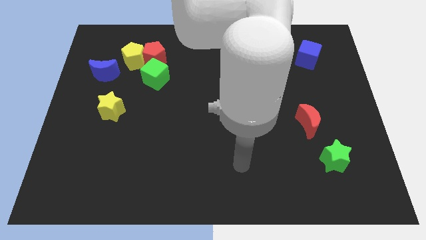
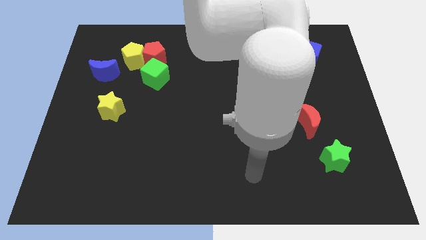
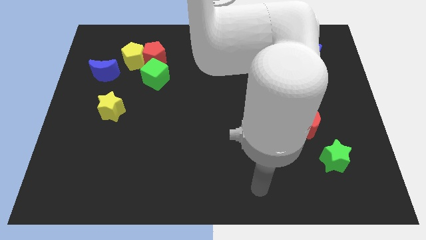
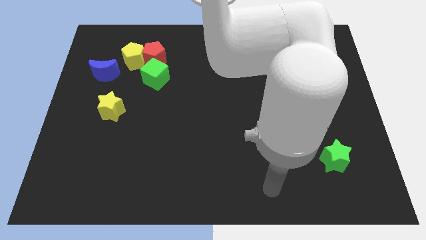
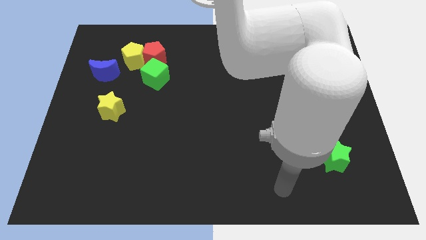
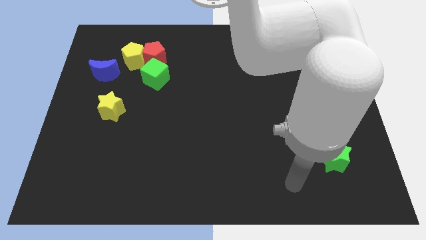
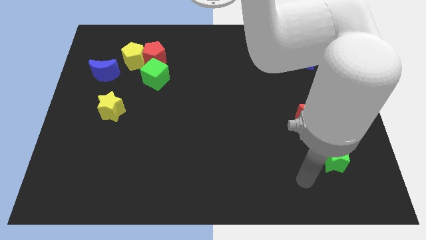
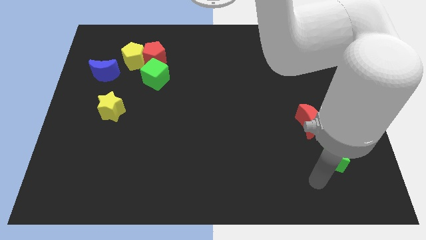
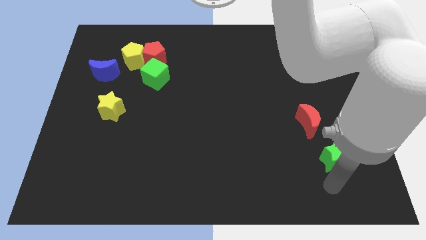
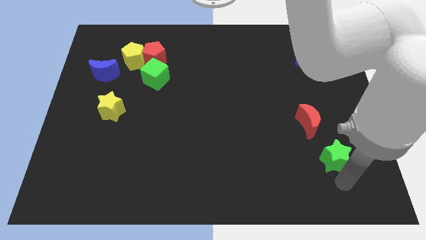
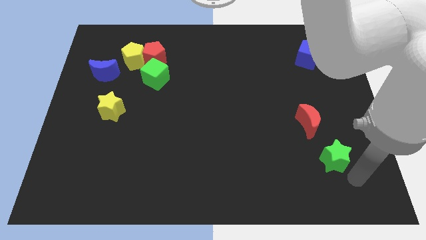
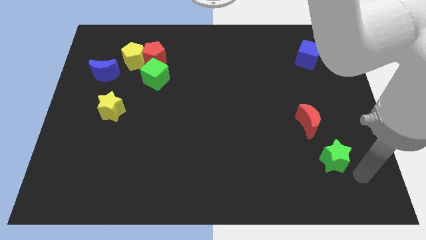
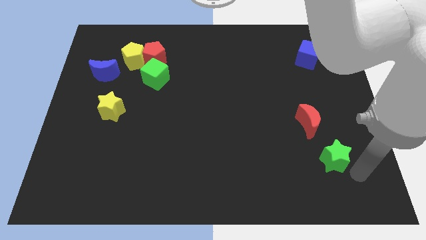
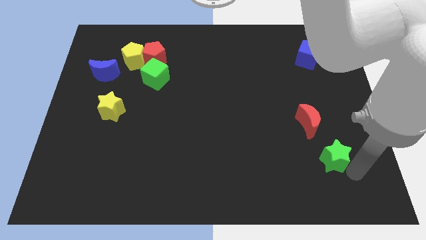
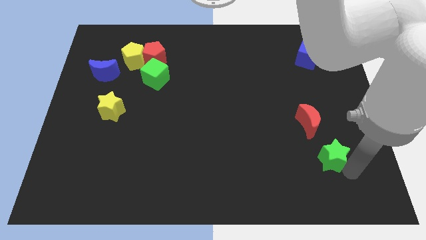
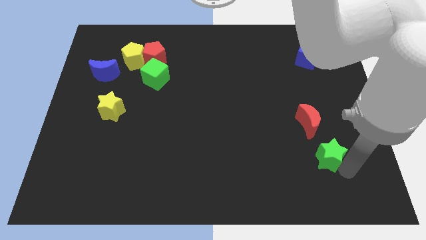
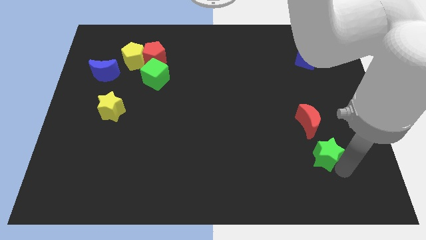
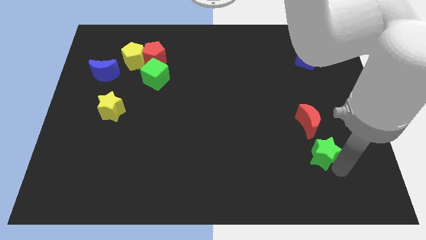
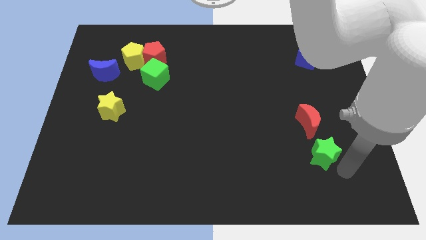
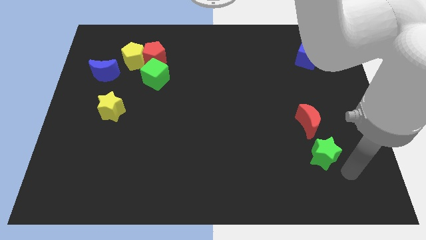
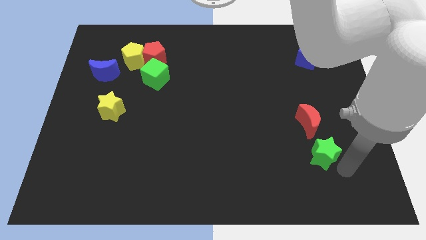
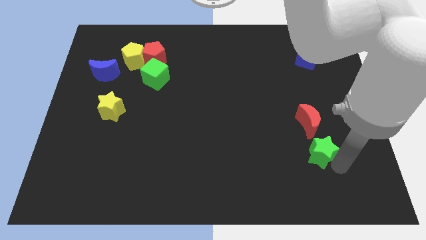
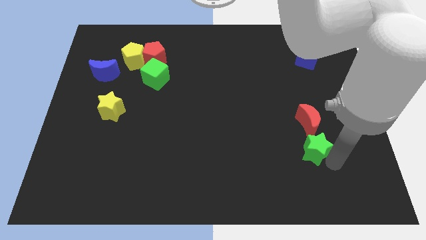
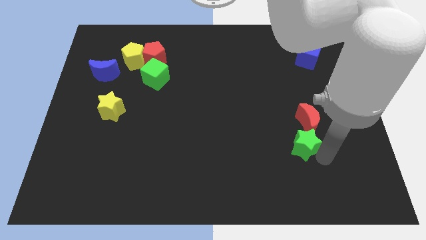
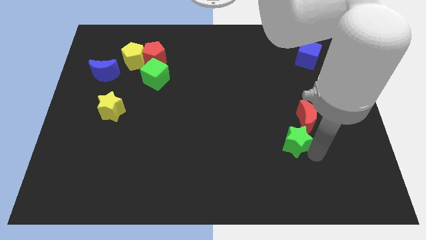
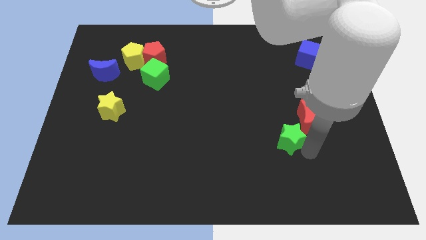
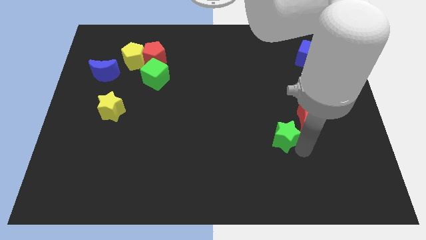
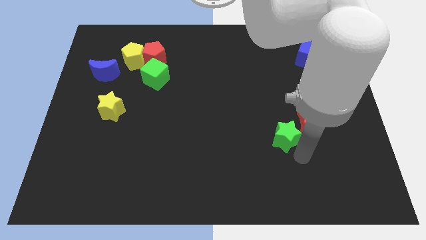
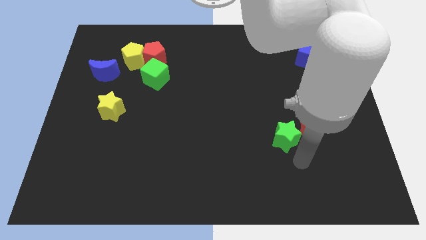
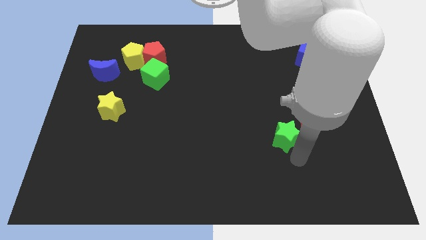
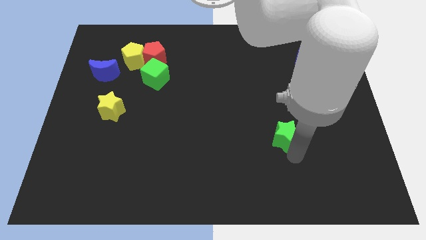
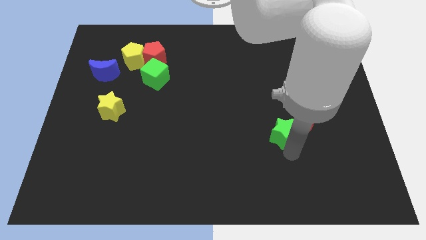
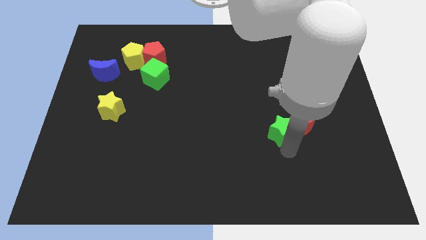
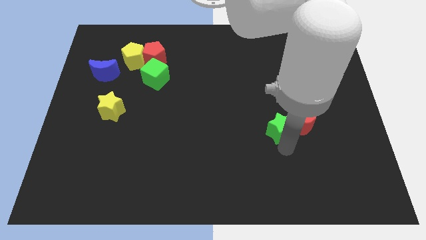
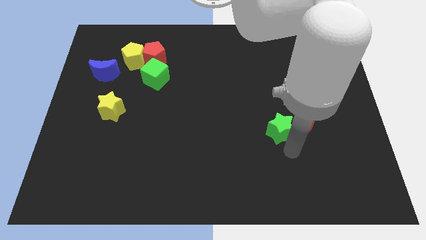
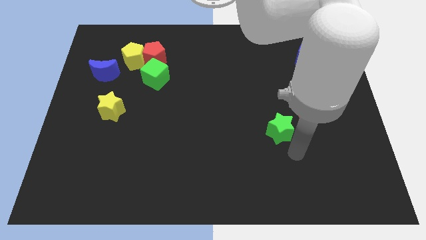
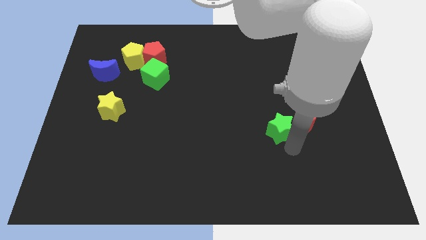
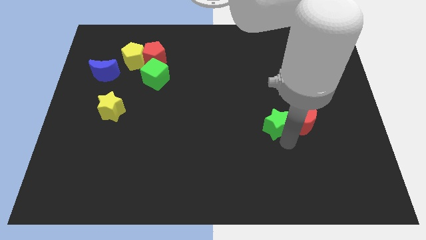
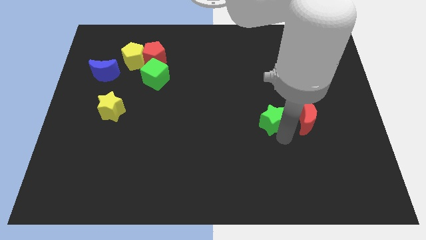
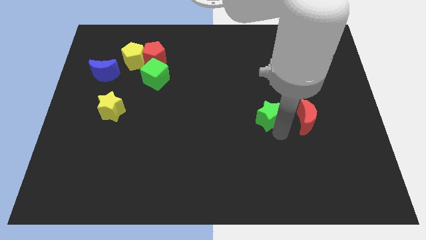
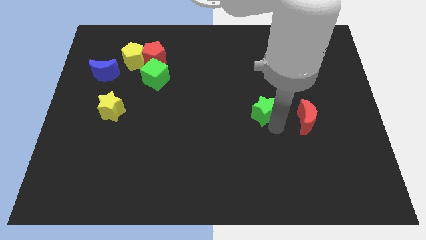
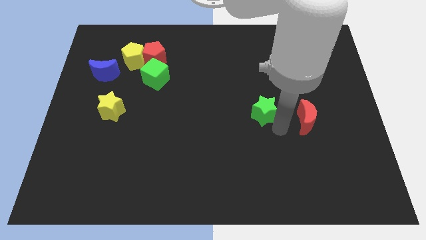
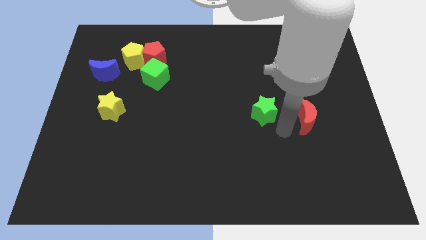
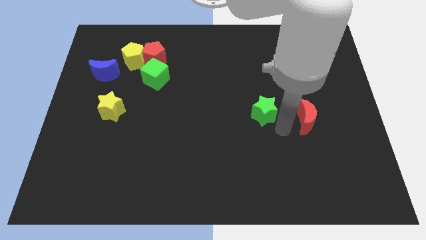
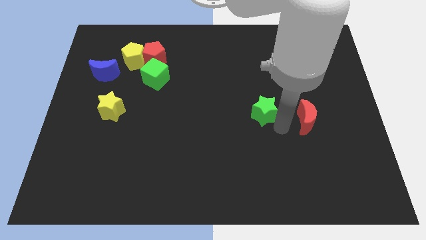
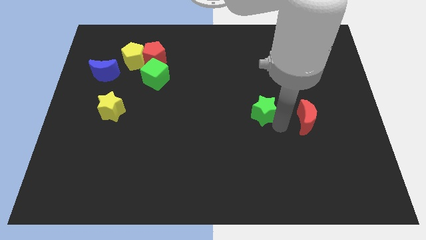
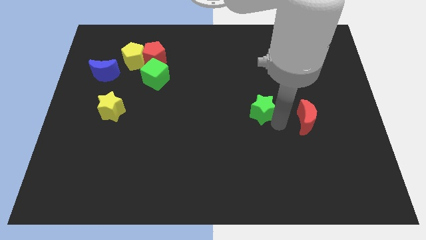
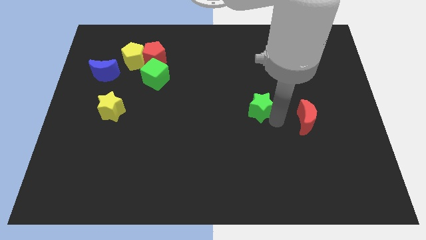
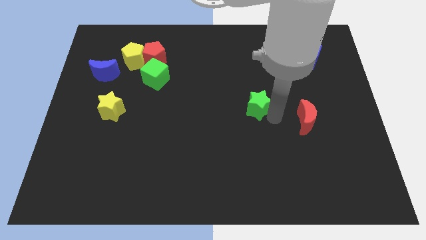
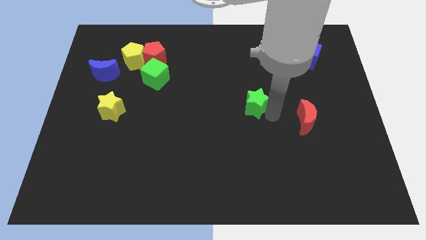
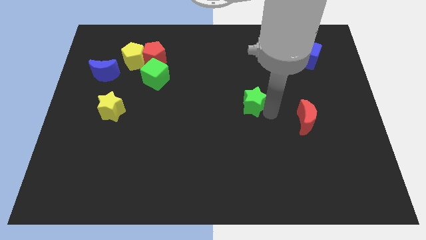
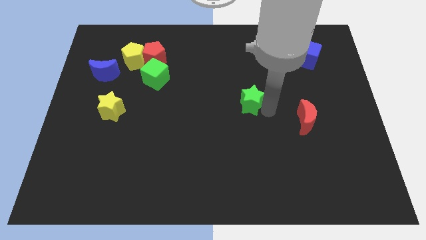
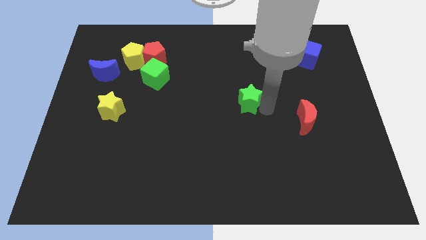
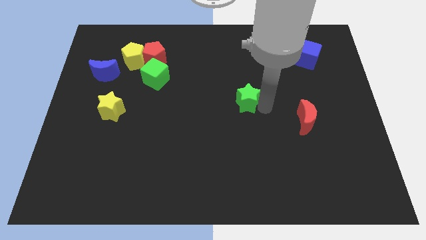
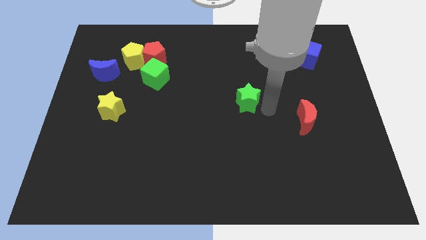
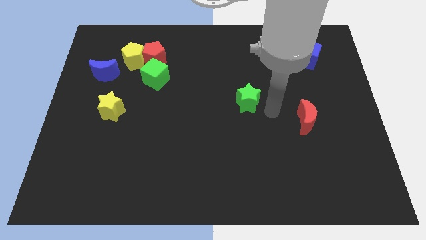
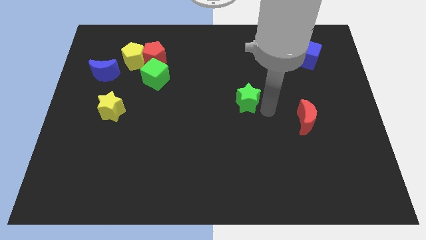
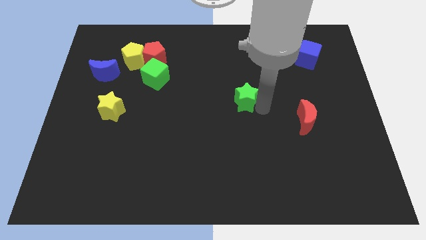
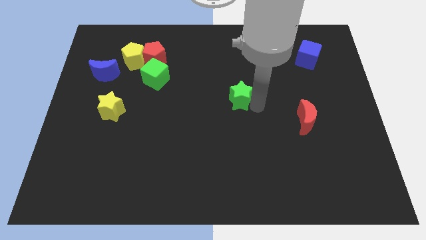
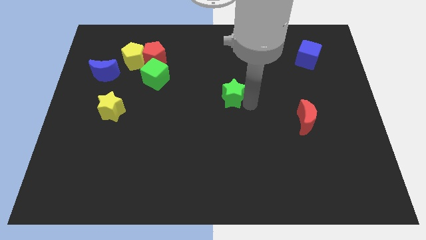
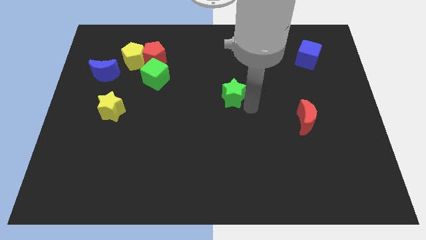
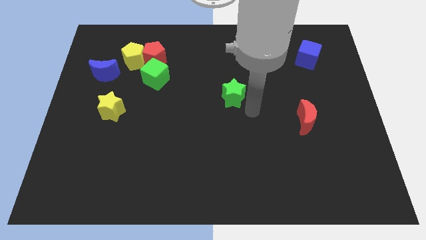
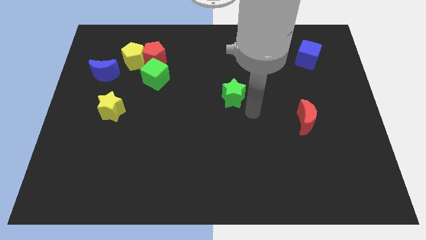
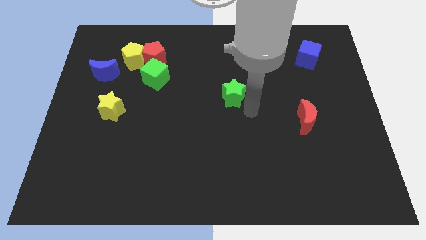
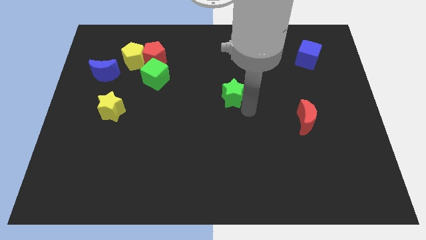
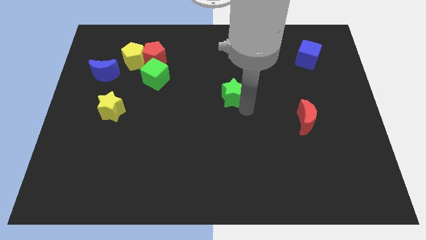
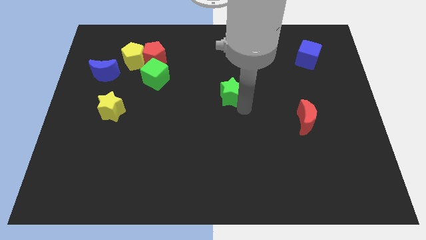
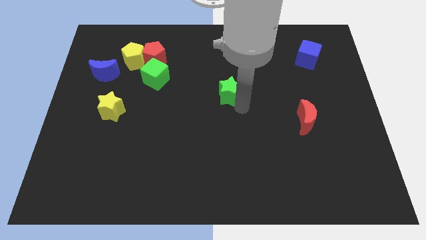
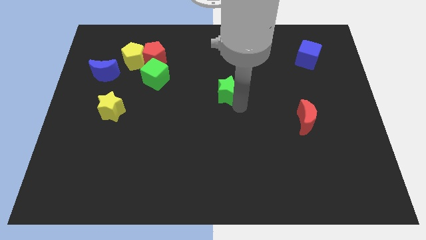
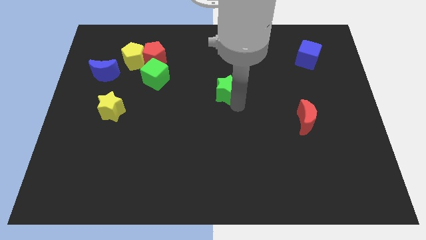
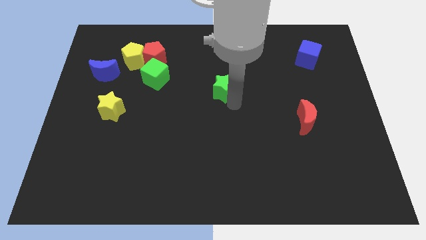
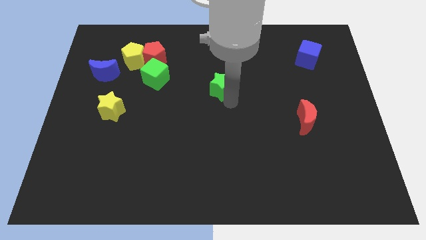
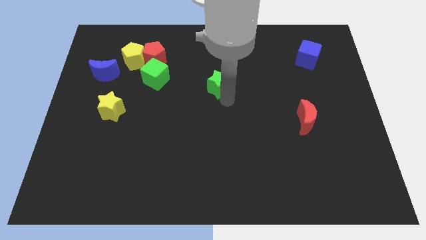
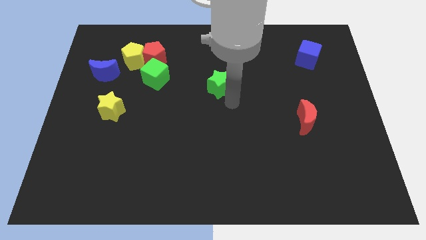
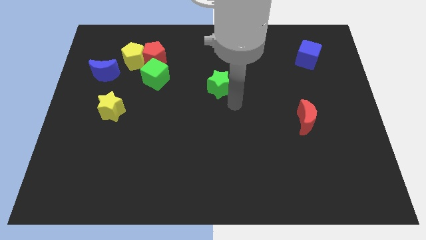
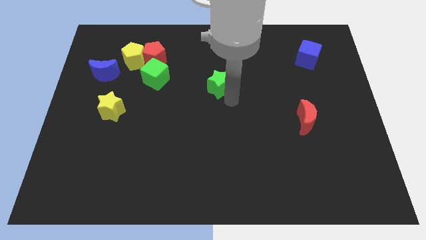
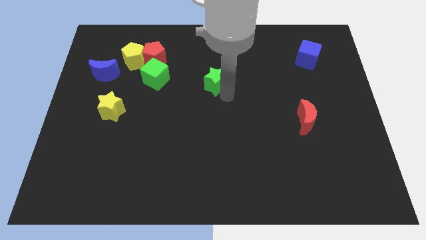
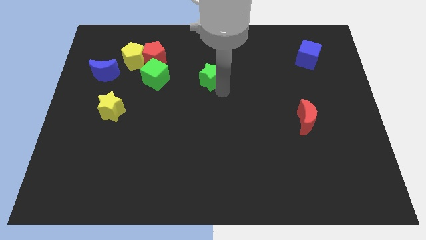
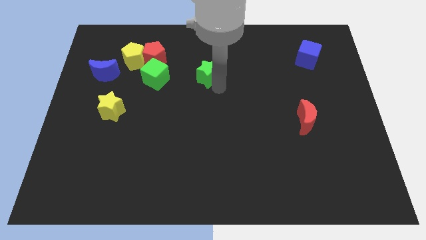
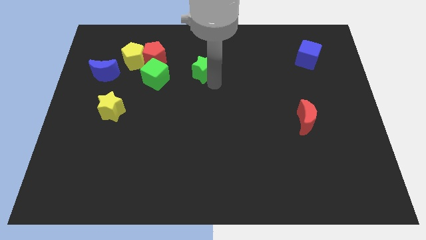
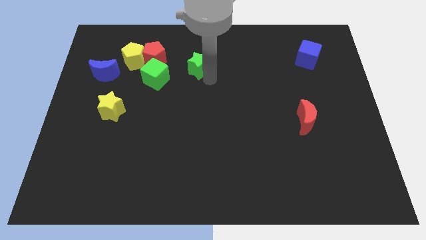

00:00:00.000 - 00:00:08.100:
put the green star right of the red pentagon
